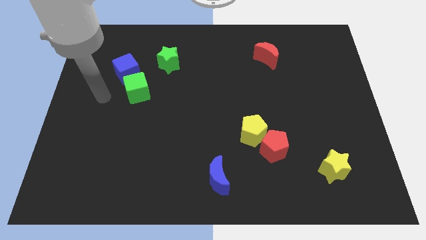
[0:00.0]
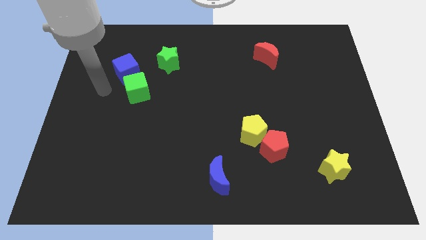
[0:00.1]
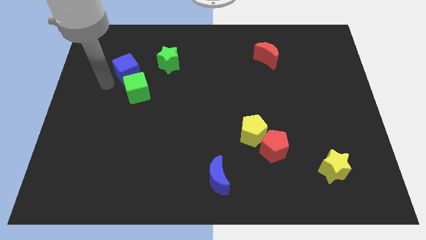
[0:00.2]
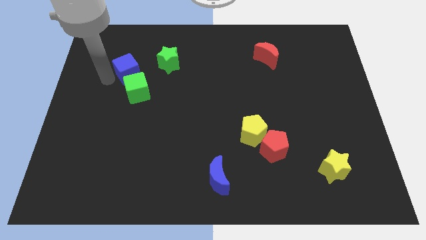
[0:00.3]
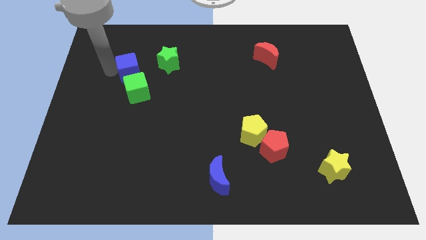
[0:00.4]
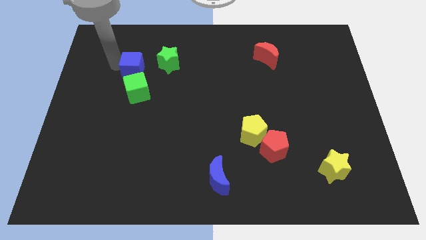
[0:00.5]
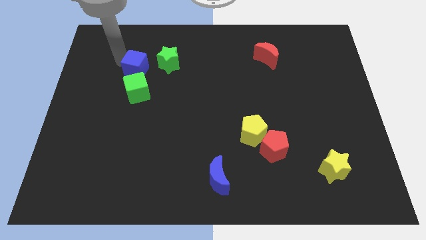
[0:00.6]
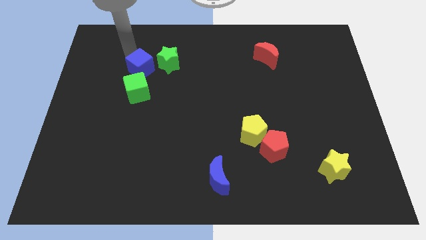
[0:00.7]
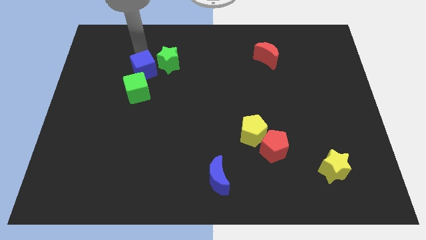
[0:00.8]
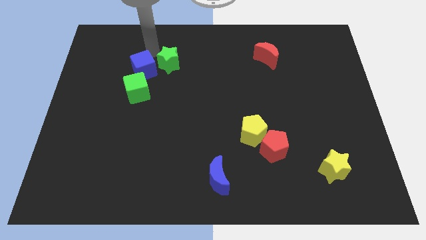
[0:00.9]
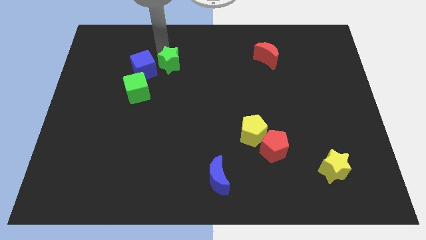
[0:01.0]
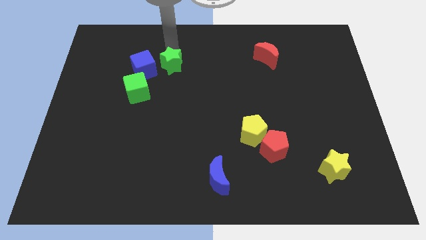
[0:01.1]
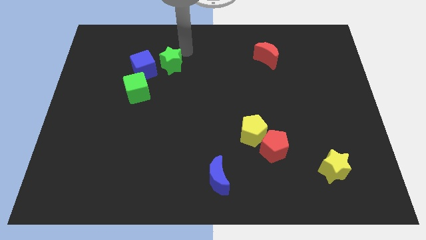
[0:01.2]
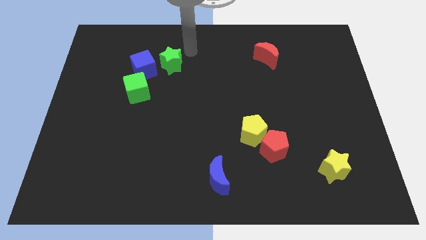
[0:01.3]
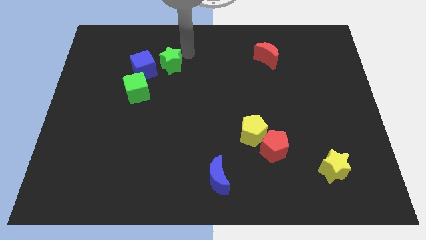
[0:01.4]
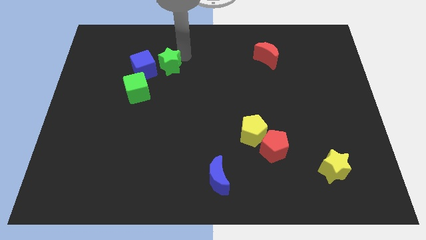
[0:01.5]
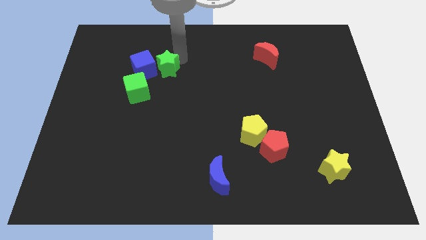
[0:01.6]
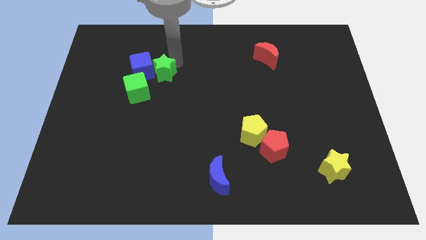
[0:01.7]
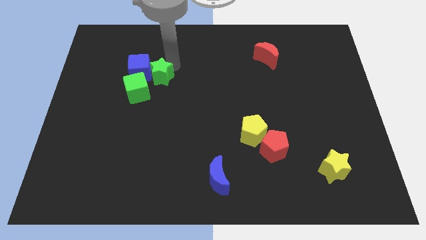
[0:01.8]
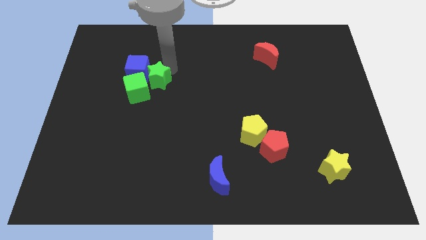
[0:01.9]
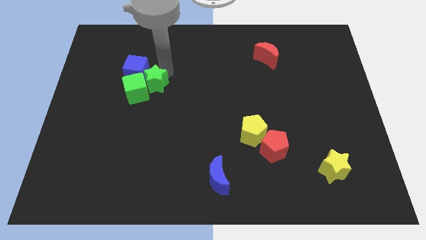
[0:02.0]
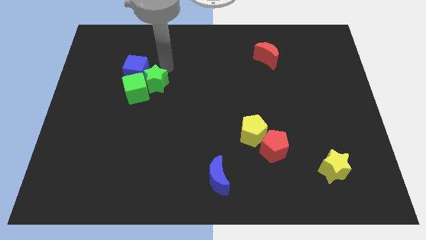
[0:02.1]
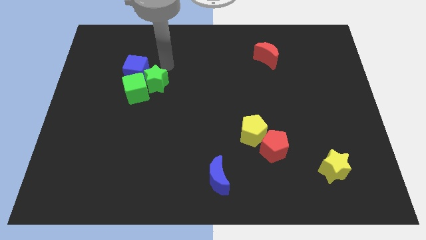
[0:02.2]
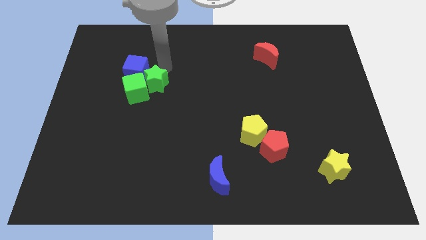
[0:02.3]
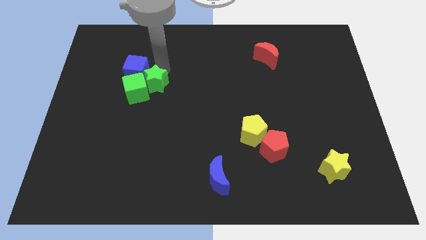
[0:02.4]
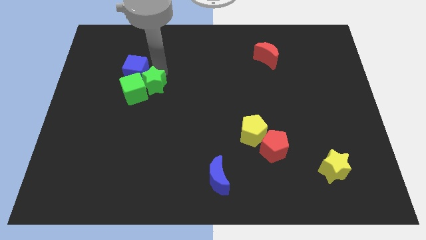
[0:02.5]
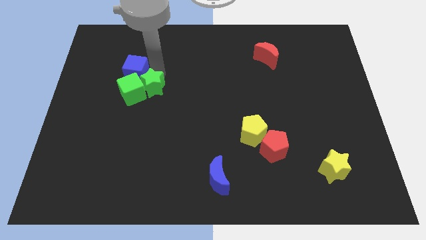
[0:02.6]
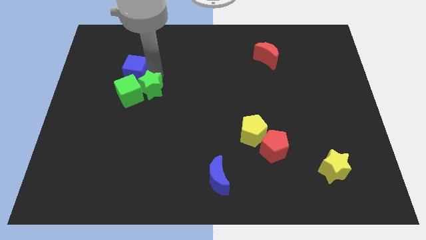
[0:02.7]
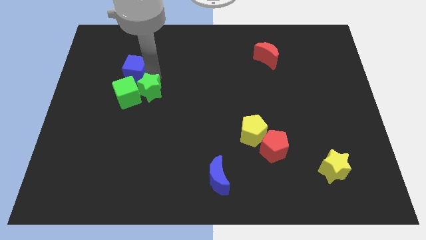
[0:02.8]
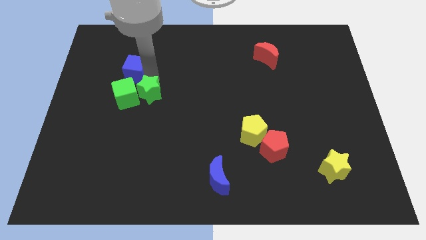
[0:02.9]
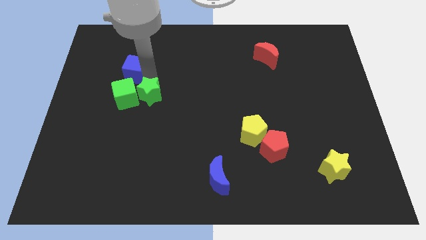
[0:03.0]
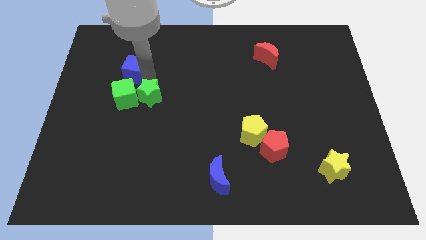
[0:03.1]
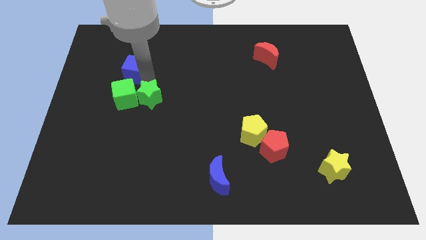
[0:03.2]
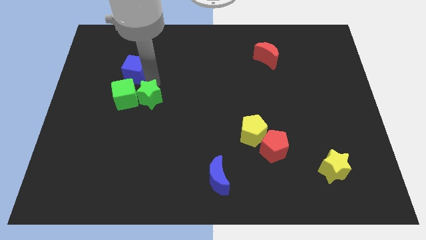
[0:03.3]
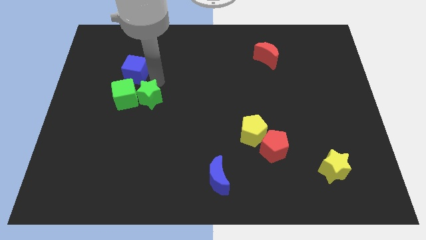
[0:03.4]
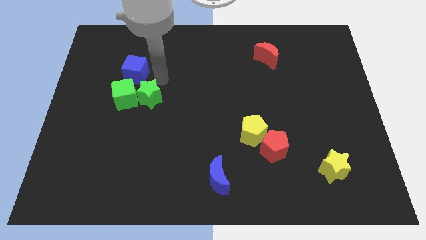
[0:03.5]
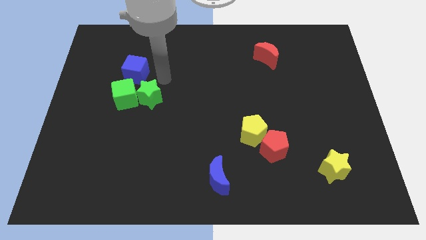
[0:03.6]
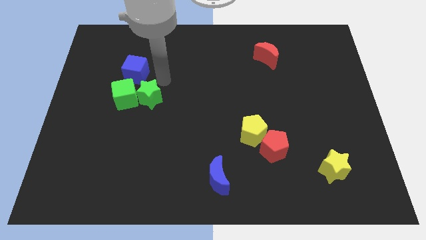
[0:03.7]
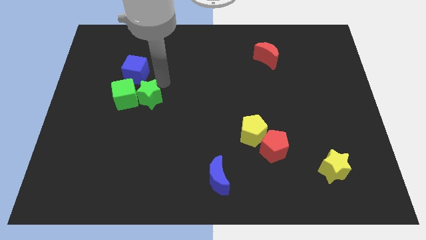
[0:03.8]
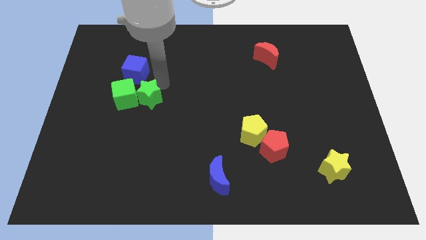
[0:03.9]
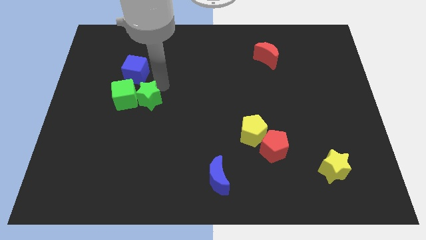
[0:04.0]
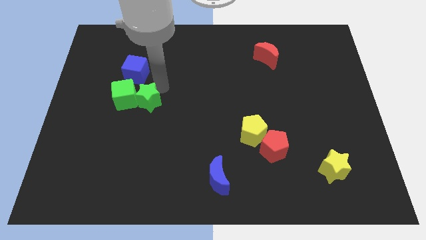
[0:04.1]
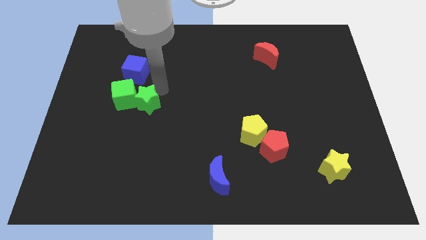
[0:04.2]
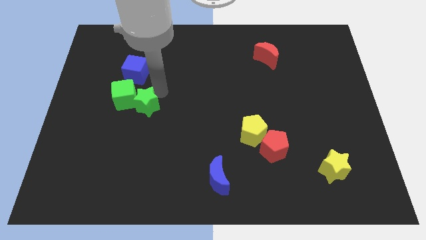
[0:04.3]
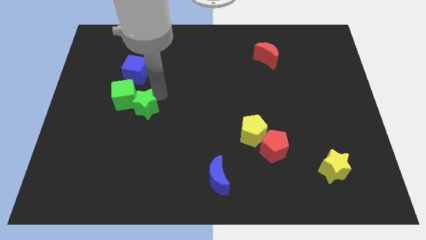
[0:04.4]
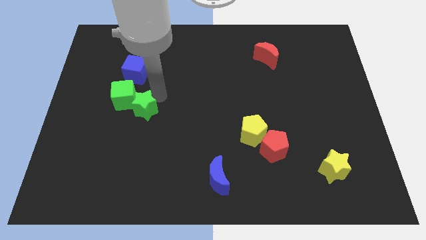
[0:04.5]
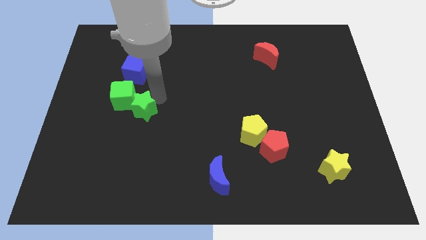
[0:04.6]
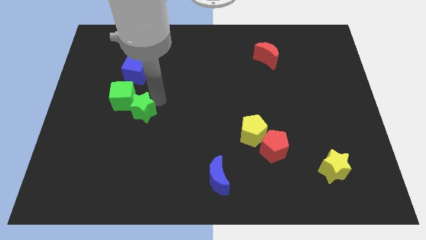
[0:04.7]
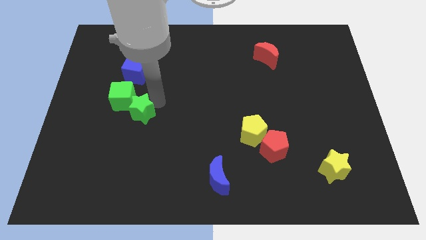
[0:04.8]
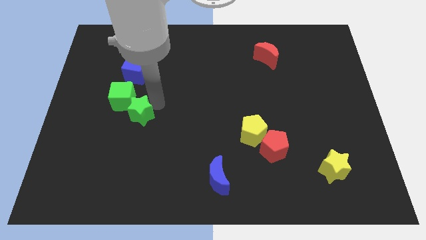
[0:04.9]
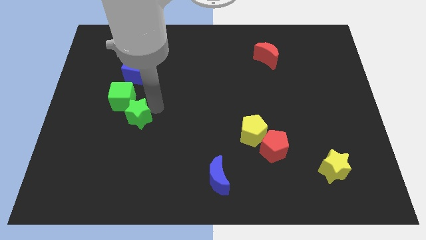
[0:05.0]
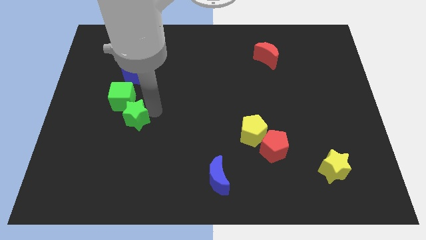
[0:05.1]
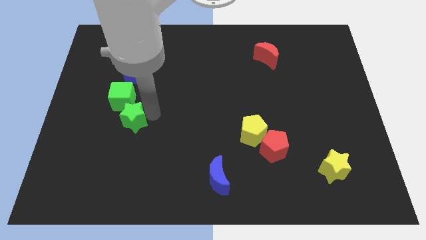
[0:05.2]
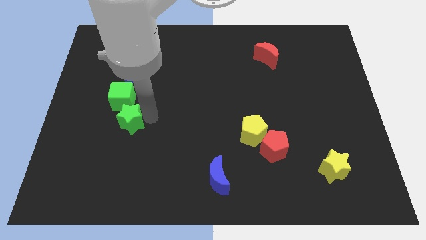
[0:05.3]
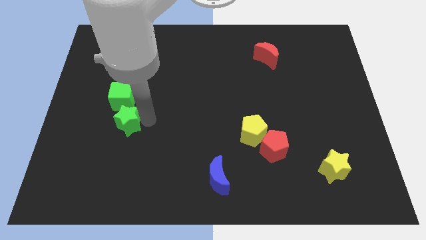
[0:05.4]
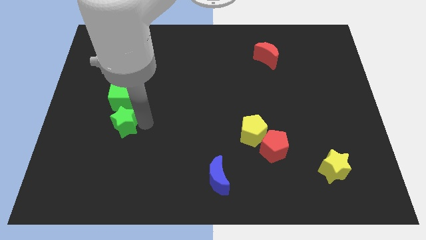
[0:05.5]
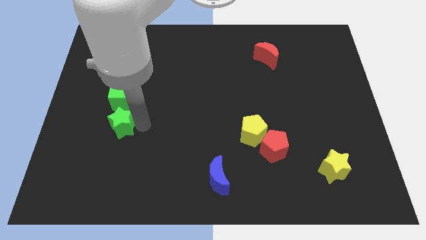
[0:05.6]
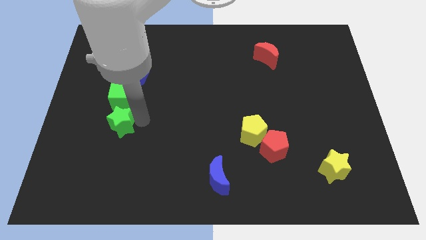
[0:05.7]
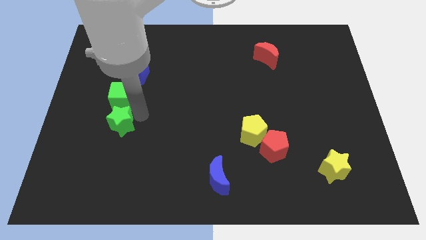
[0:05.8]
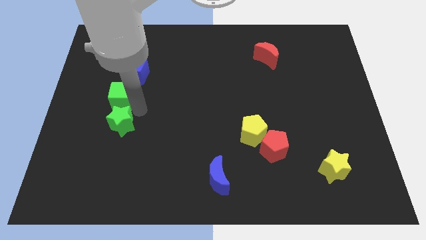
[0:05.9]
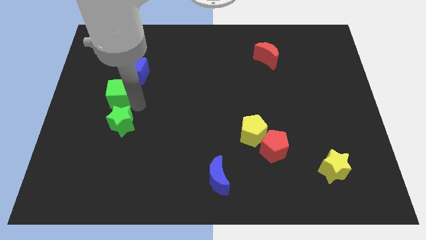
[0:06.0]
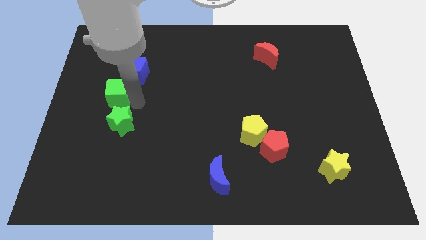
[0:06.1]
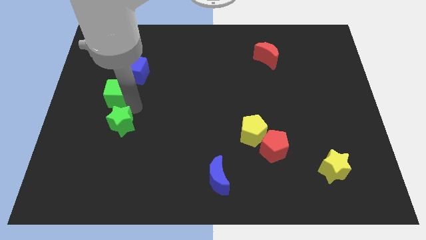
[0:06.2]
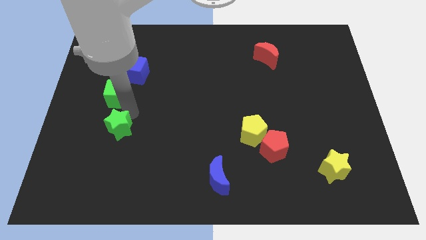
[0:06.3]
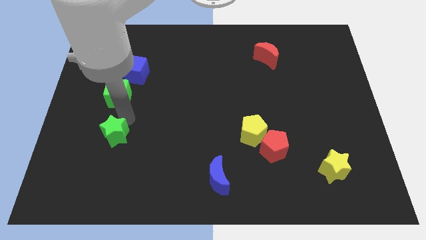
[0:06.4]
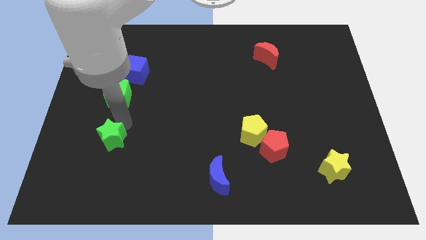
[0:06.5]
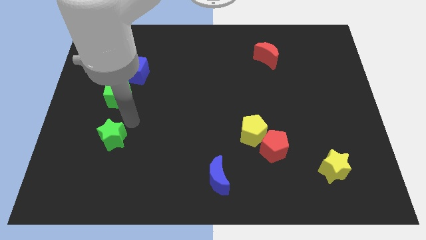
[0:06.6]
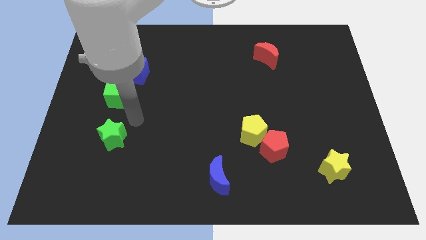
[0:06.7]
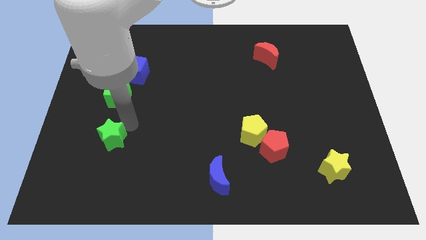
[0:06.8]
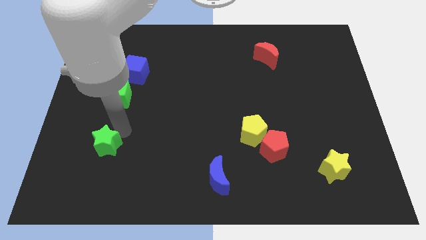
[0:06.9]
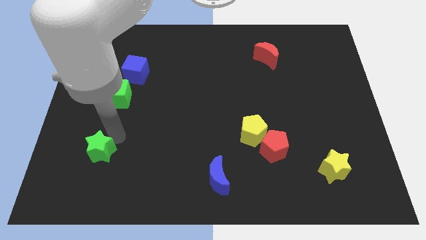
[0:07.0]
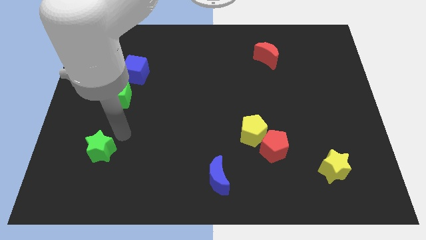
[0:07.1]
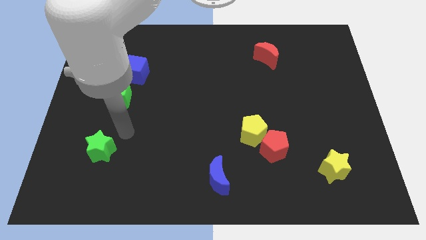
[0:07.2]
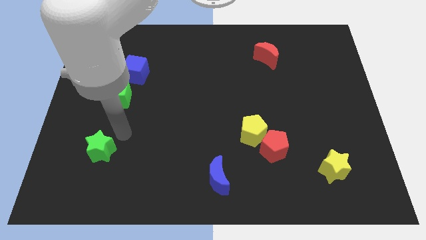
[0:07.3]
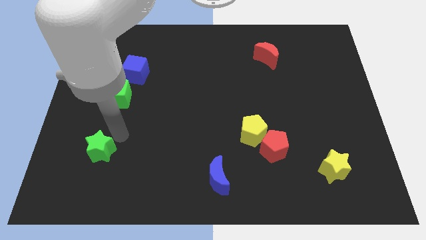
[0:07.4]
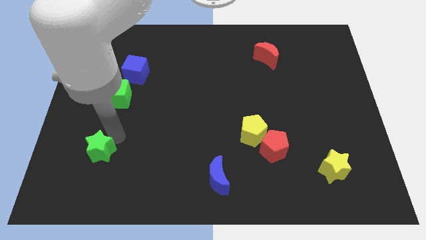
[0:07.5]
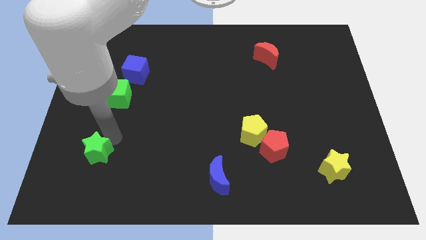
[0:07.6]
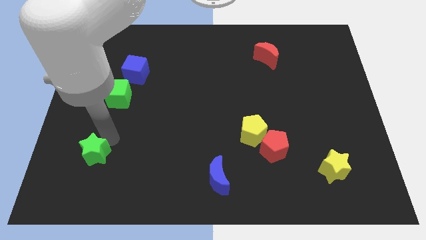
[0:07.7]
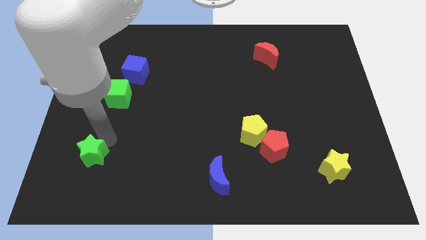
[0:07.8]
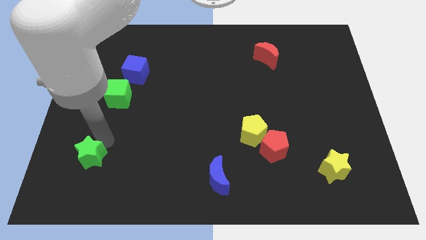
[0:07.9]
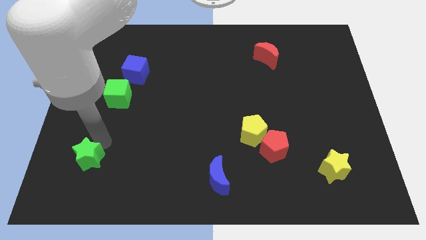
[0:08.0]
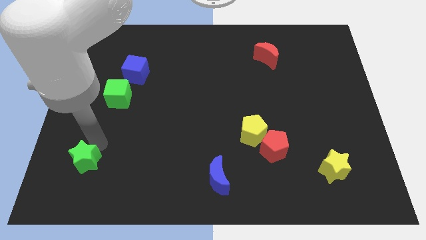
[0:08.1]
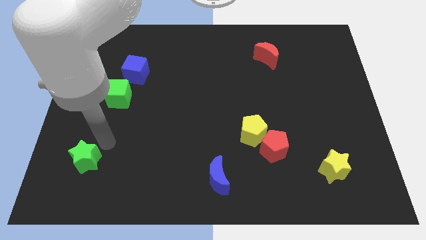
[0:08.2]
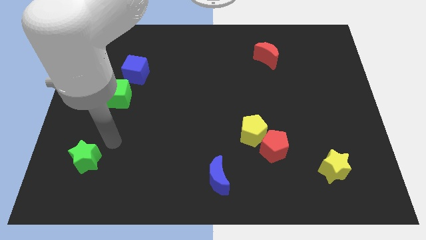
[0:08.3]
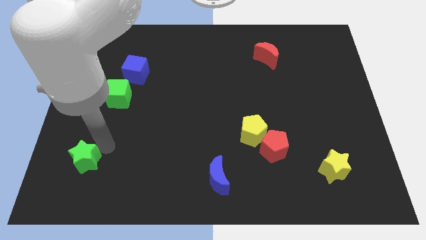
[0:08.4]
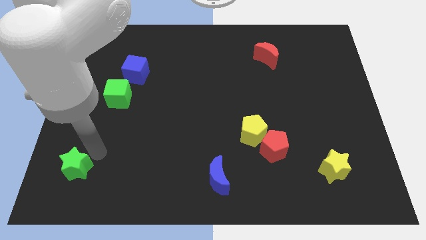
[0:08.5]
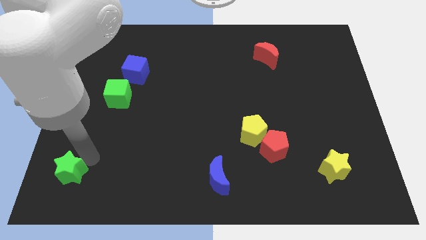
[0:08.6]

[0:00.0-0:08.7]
push the green star to the bottom left corner
